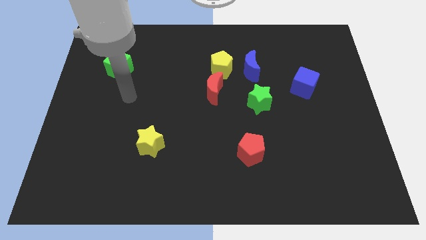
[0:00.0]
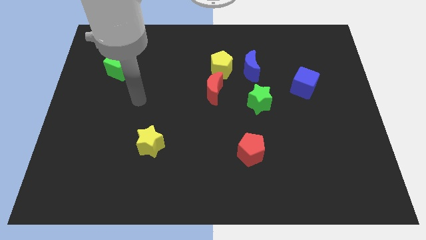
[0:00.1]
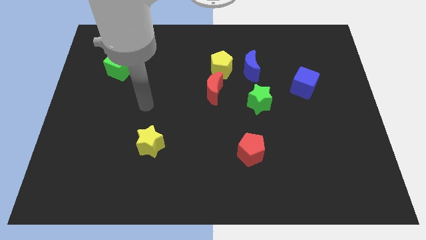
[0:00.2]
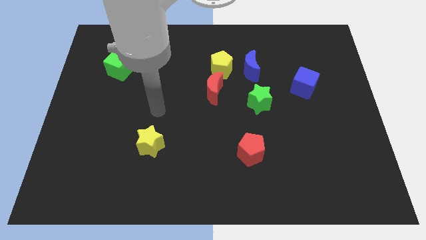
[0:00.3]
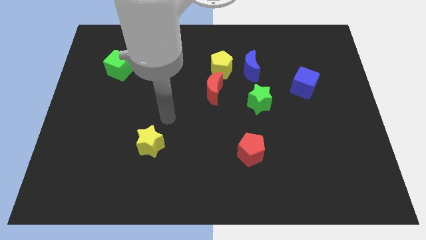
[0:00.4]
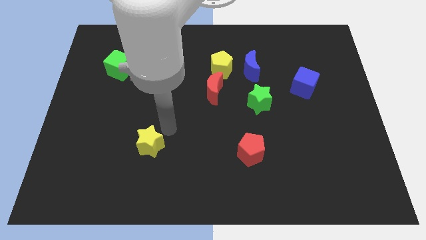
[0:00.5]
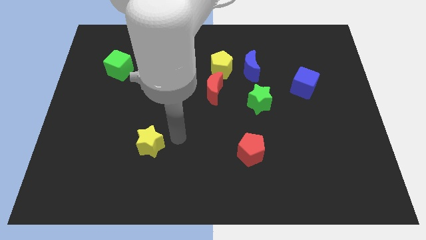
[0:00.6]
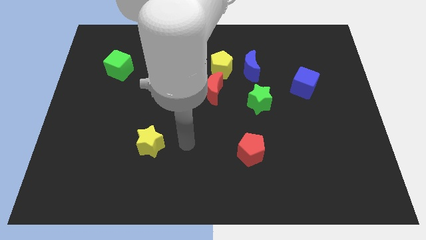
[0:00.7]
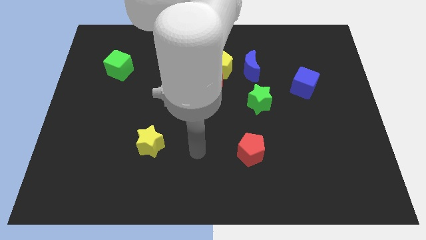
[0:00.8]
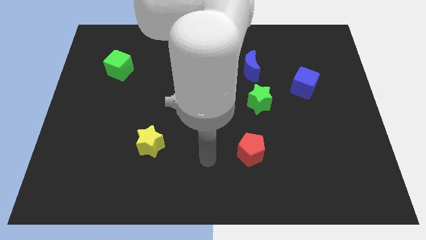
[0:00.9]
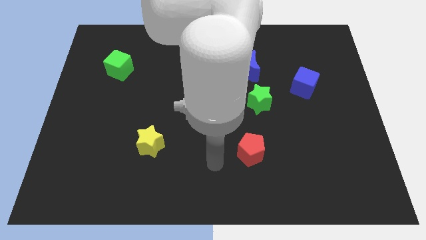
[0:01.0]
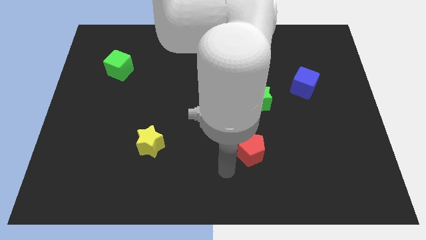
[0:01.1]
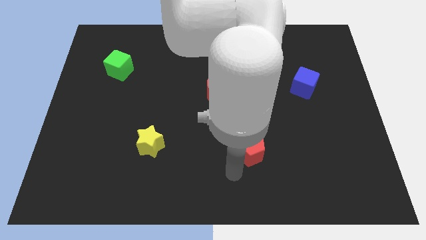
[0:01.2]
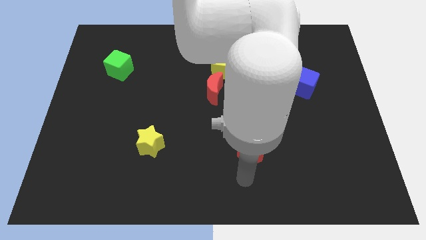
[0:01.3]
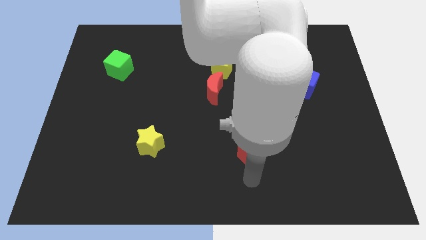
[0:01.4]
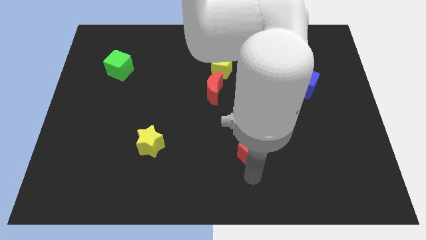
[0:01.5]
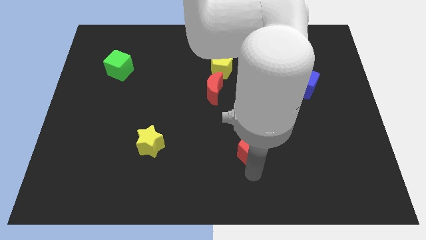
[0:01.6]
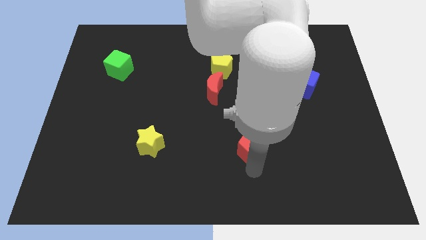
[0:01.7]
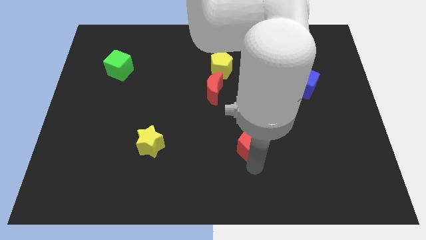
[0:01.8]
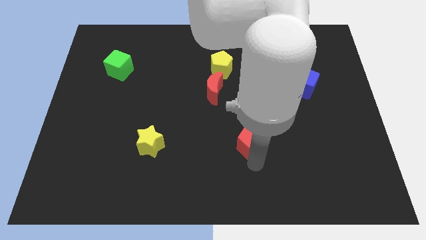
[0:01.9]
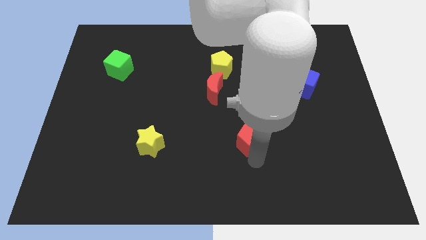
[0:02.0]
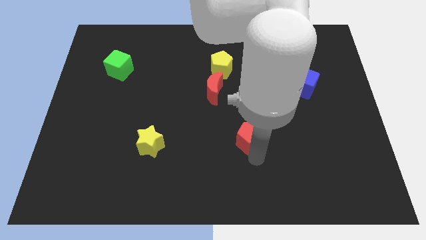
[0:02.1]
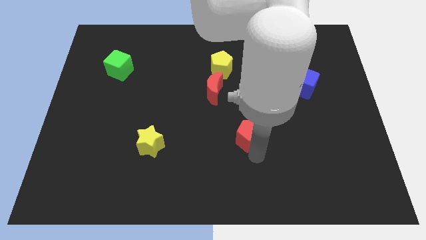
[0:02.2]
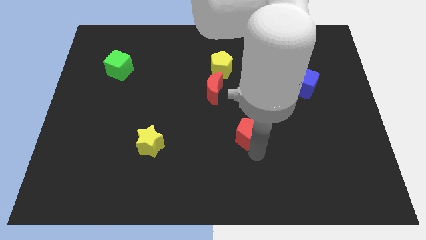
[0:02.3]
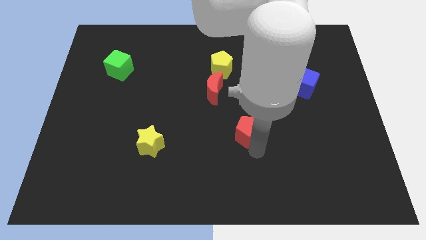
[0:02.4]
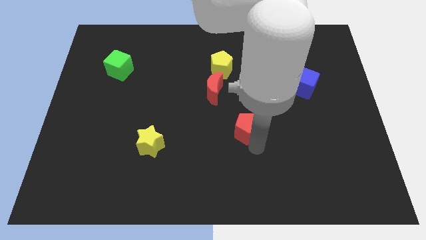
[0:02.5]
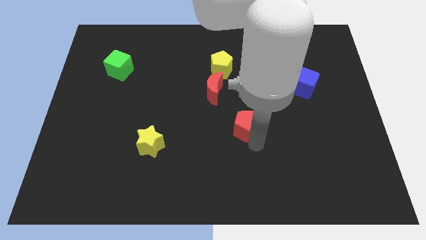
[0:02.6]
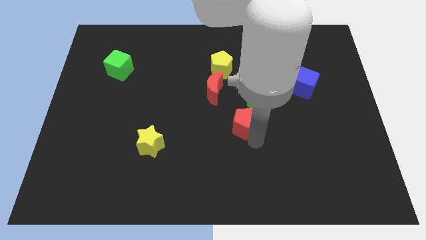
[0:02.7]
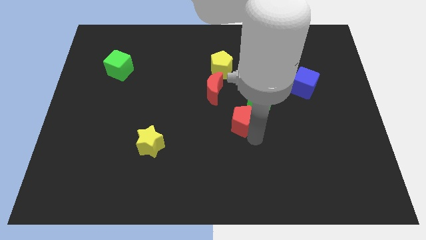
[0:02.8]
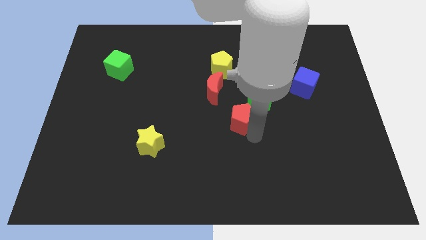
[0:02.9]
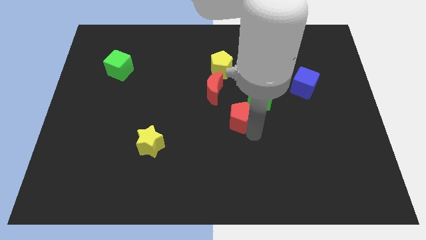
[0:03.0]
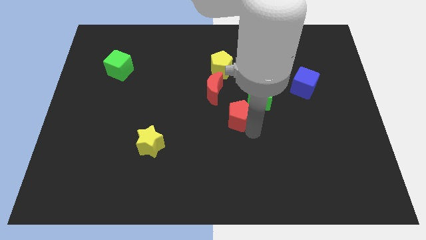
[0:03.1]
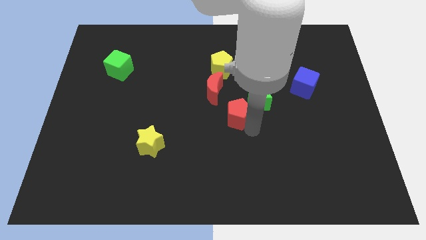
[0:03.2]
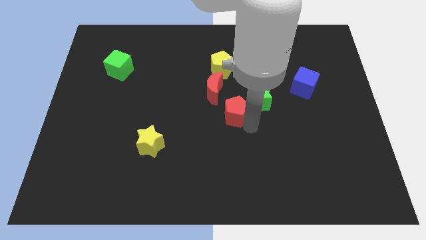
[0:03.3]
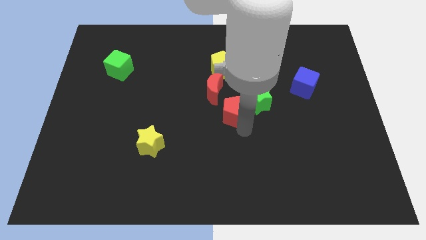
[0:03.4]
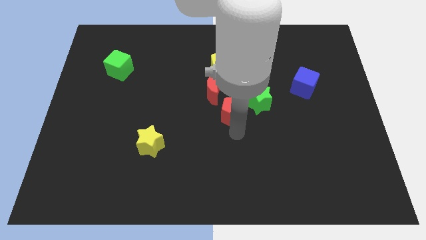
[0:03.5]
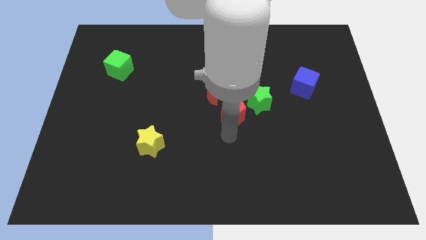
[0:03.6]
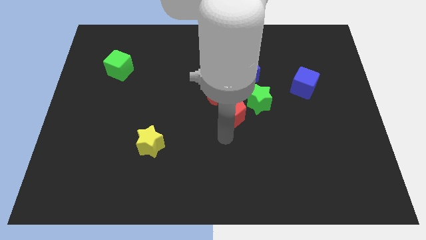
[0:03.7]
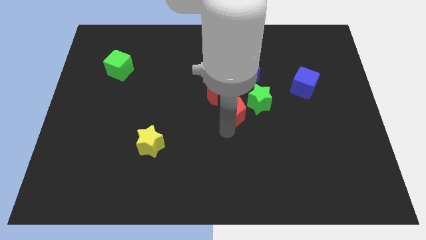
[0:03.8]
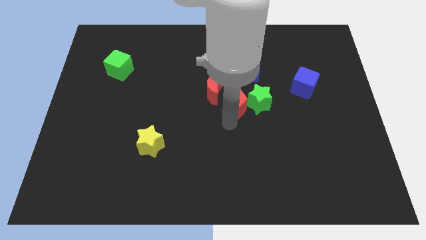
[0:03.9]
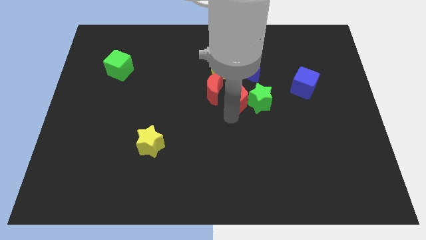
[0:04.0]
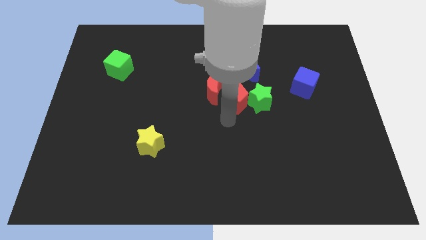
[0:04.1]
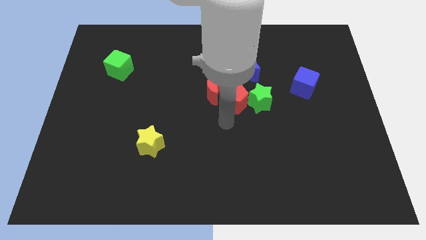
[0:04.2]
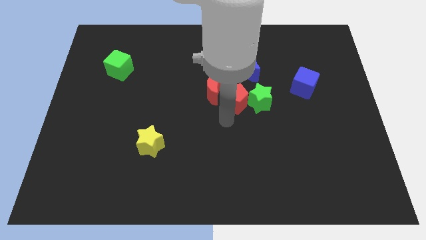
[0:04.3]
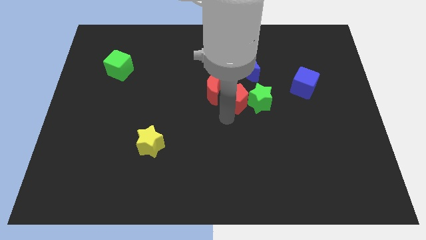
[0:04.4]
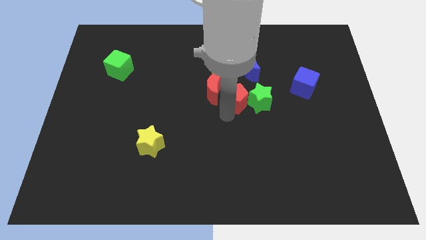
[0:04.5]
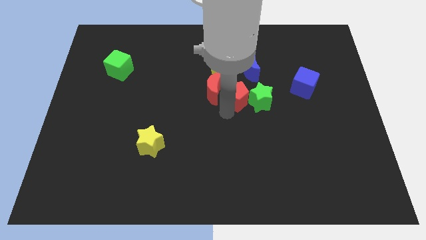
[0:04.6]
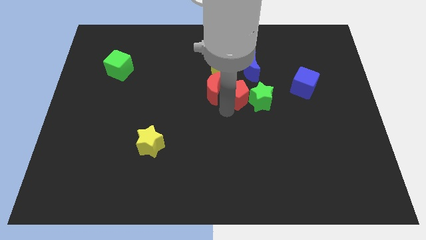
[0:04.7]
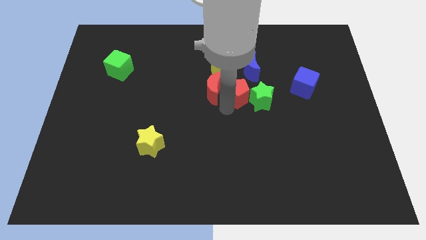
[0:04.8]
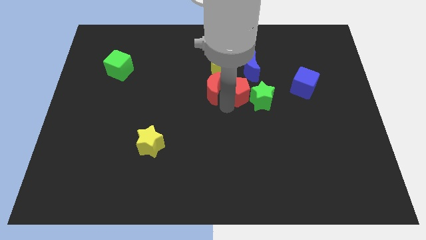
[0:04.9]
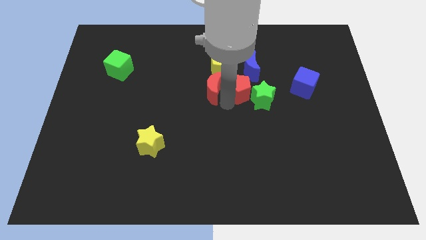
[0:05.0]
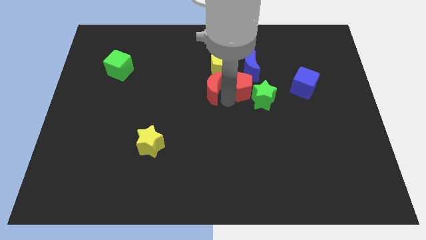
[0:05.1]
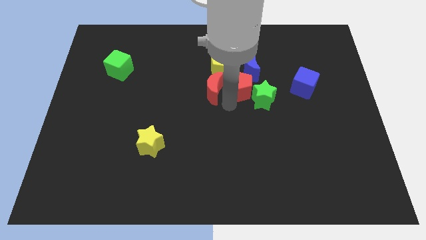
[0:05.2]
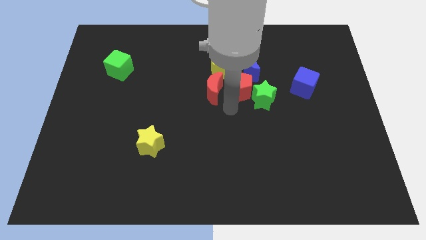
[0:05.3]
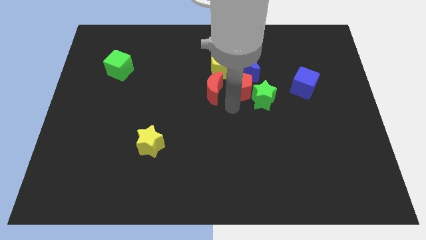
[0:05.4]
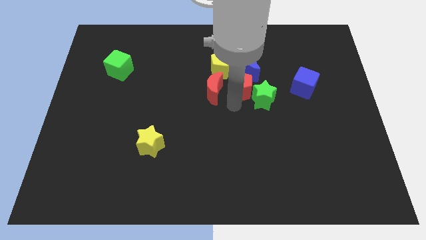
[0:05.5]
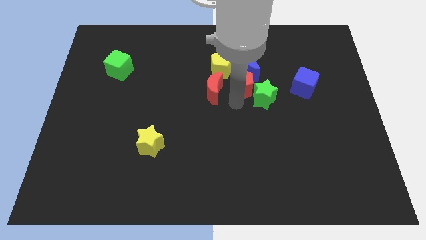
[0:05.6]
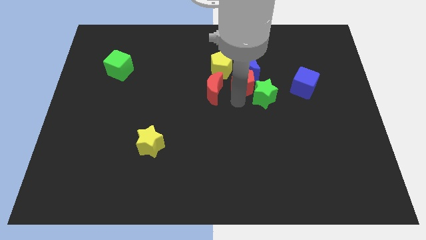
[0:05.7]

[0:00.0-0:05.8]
move the red pentagon towards the blue moon

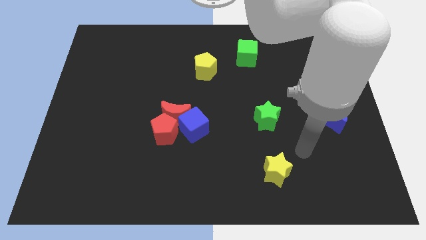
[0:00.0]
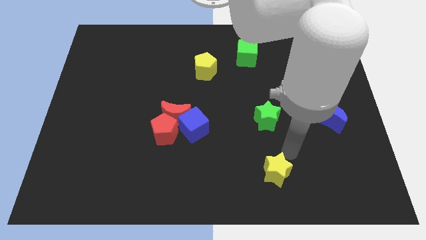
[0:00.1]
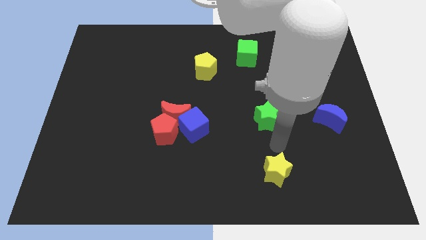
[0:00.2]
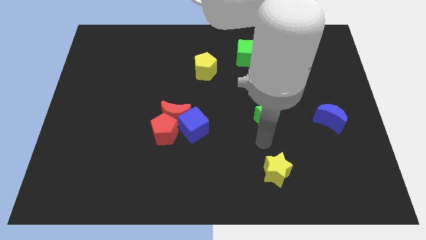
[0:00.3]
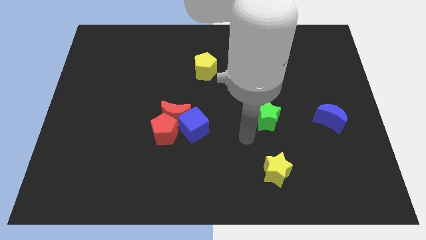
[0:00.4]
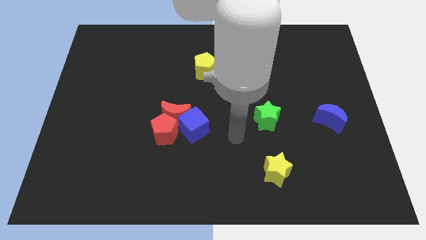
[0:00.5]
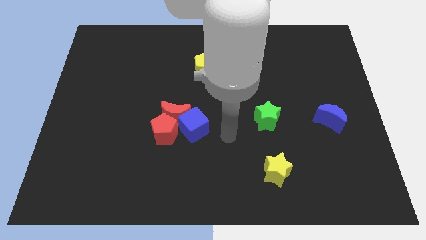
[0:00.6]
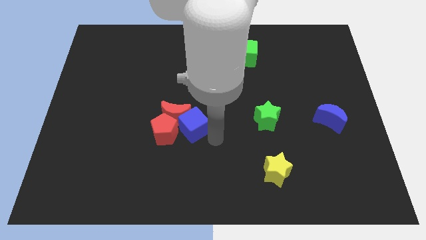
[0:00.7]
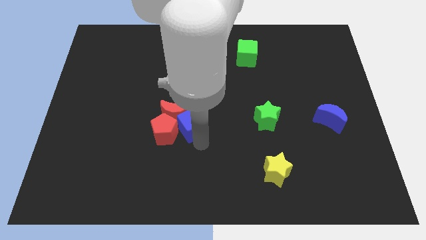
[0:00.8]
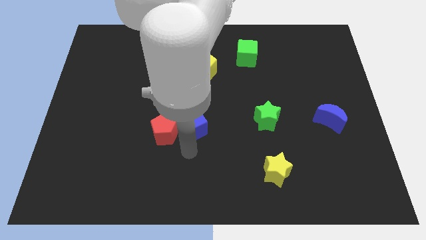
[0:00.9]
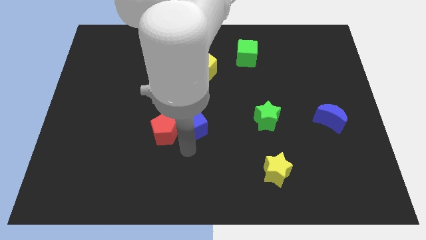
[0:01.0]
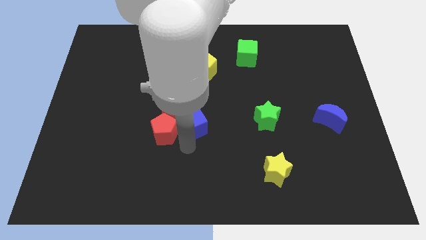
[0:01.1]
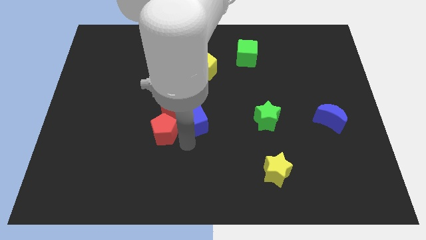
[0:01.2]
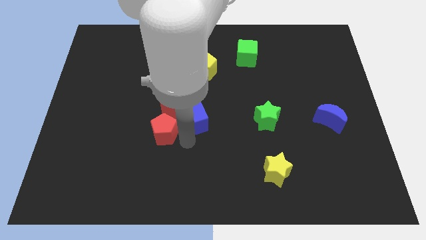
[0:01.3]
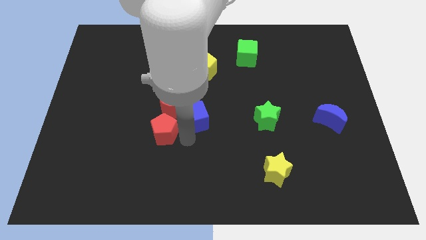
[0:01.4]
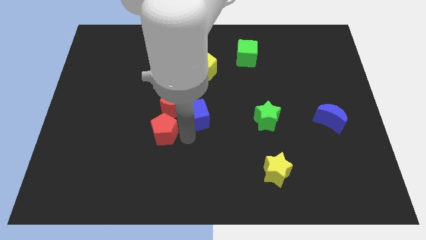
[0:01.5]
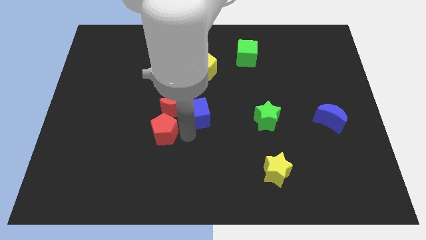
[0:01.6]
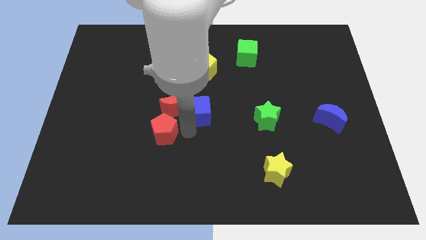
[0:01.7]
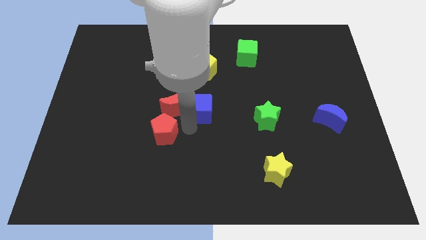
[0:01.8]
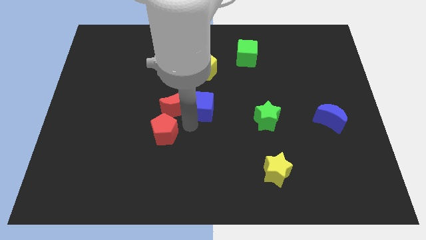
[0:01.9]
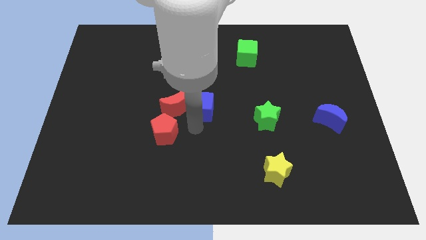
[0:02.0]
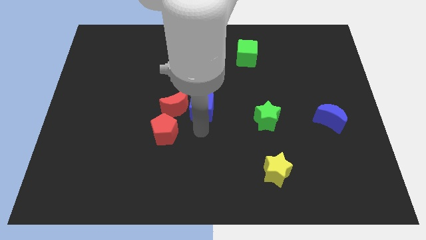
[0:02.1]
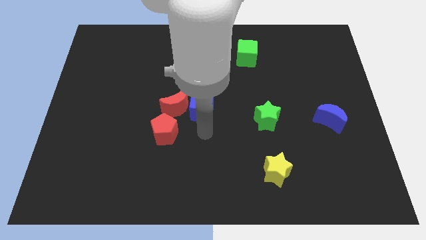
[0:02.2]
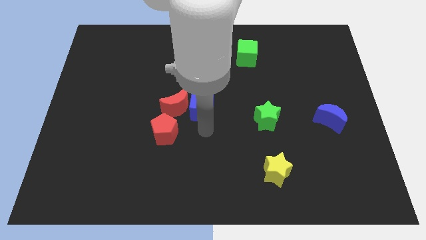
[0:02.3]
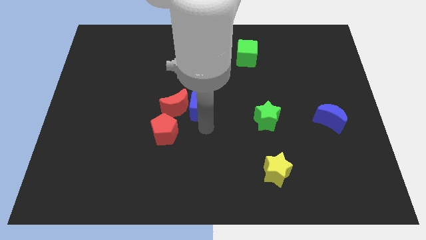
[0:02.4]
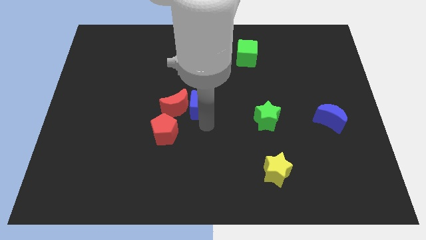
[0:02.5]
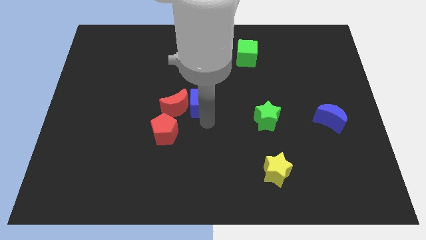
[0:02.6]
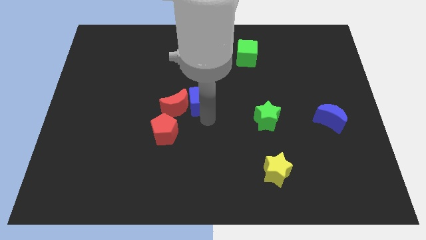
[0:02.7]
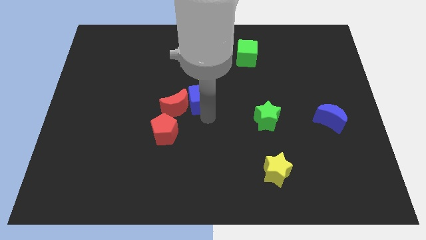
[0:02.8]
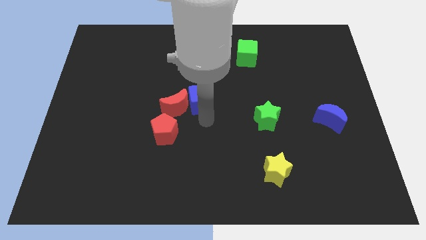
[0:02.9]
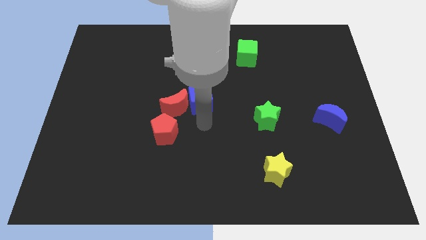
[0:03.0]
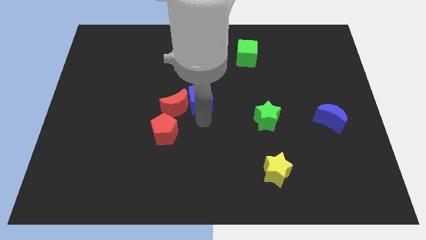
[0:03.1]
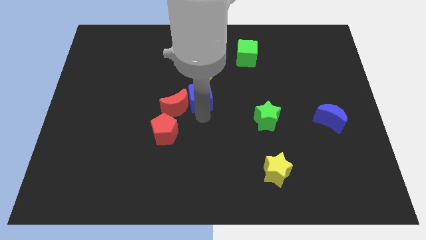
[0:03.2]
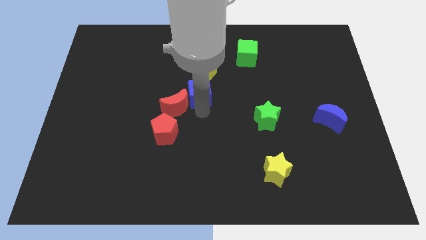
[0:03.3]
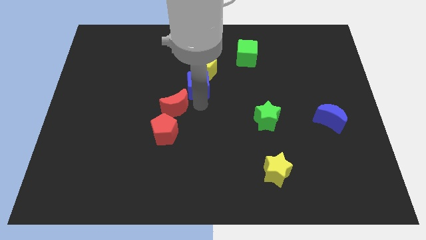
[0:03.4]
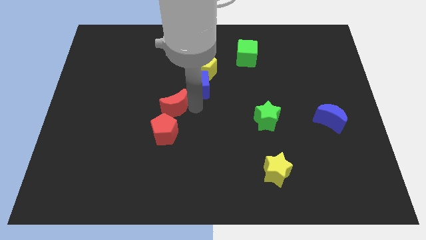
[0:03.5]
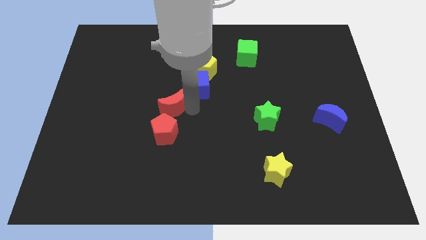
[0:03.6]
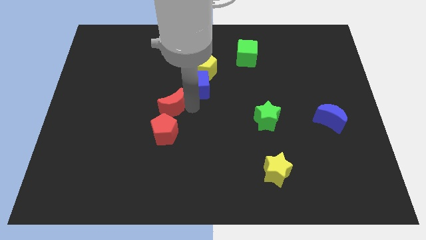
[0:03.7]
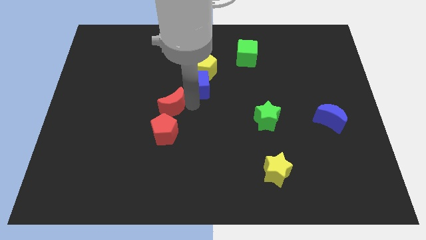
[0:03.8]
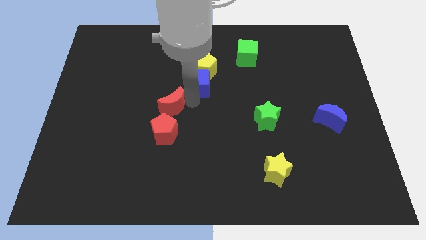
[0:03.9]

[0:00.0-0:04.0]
put the blue cube towards the yellow pentagon
